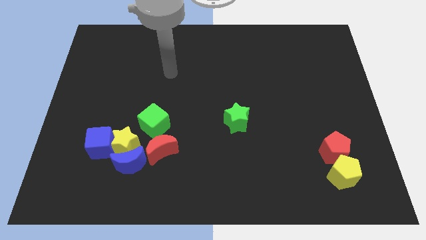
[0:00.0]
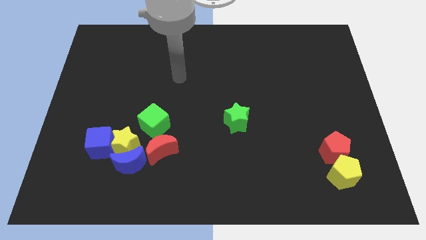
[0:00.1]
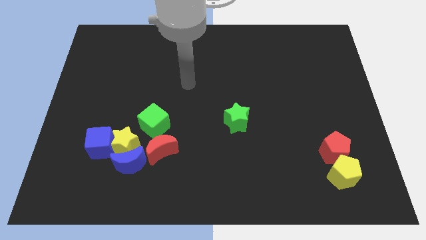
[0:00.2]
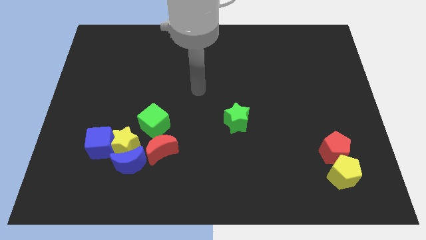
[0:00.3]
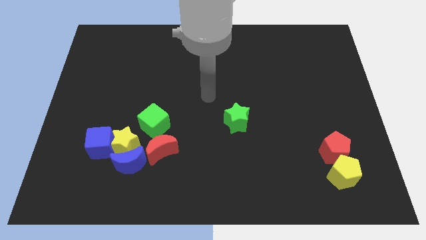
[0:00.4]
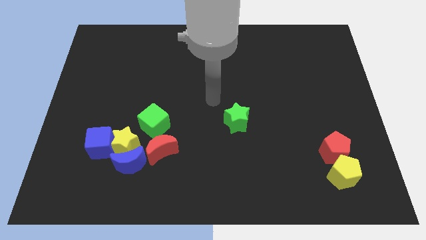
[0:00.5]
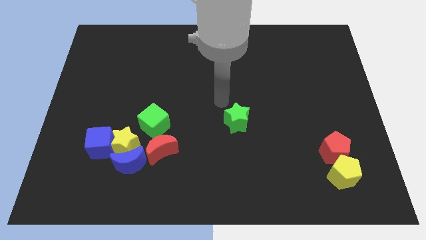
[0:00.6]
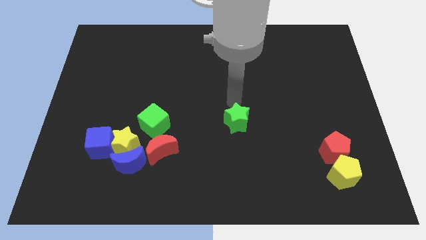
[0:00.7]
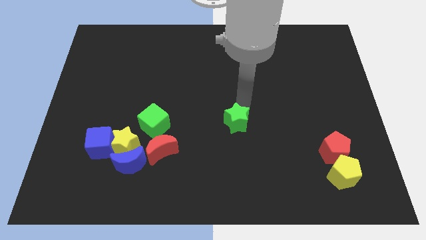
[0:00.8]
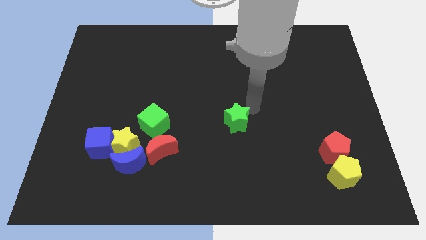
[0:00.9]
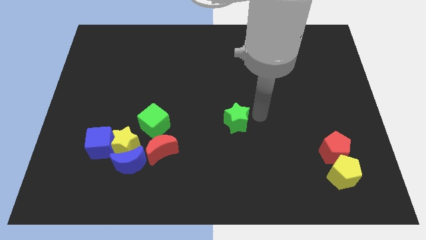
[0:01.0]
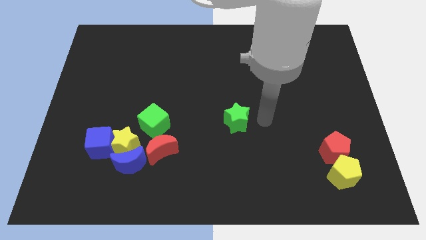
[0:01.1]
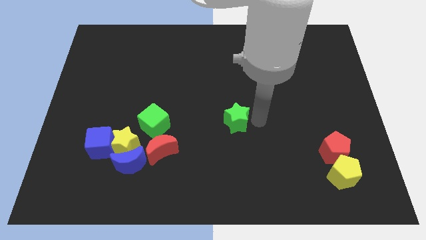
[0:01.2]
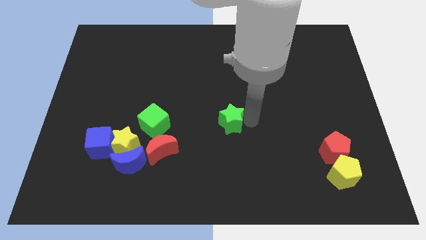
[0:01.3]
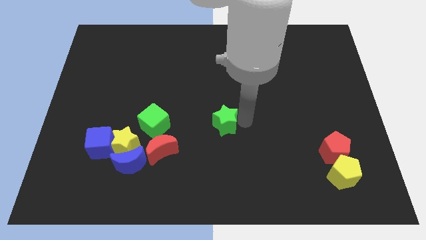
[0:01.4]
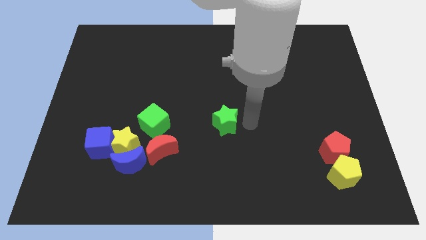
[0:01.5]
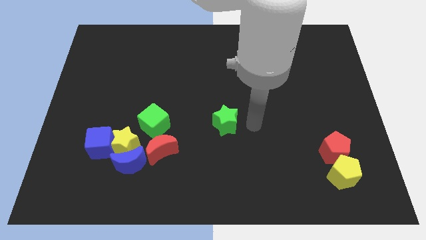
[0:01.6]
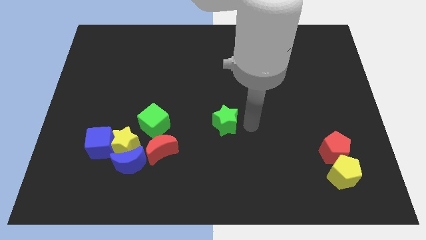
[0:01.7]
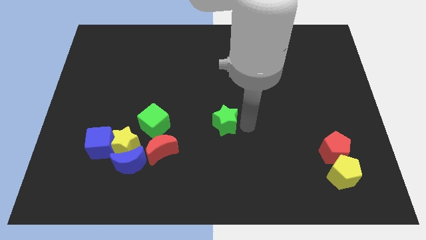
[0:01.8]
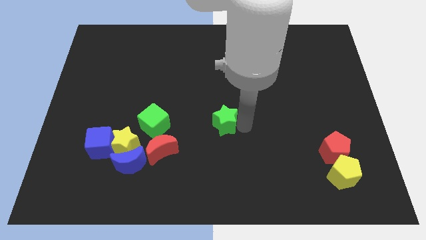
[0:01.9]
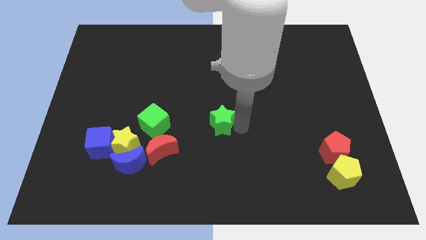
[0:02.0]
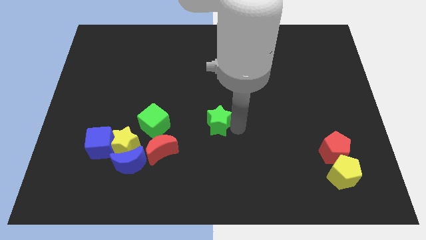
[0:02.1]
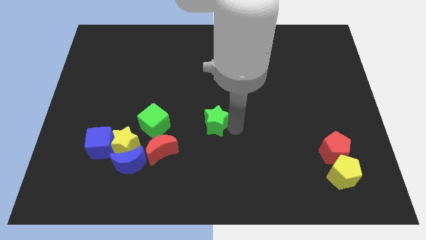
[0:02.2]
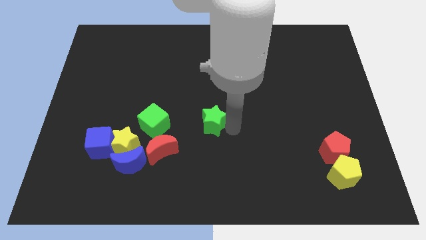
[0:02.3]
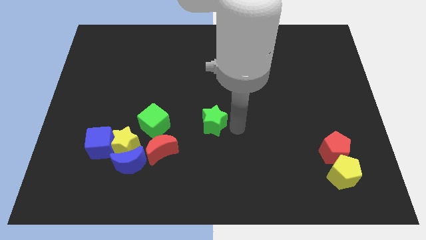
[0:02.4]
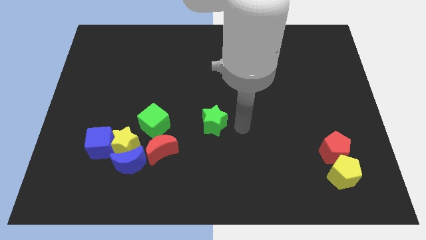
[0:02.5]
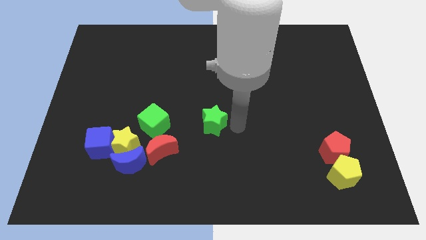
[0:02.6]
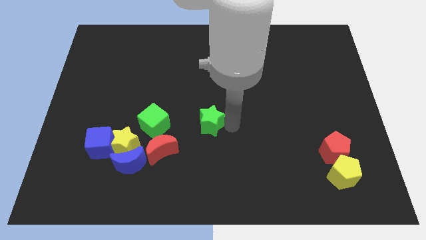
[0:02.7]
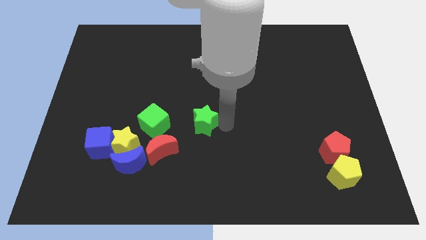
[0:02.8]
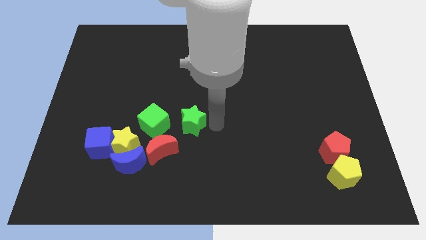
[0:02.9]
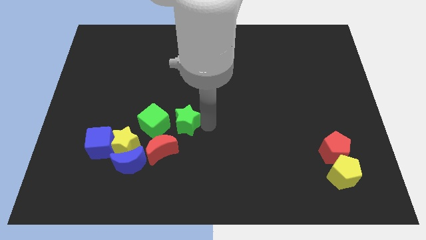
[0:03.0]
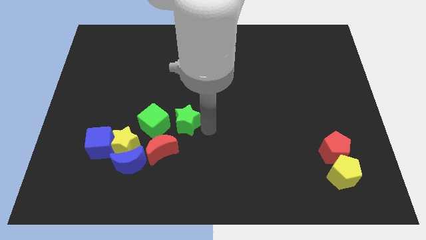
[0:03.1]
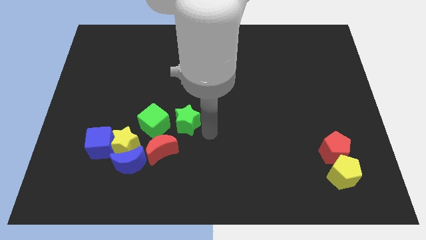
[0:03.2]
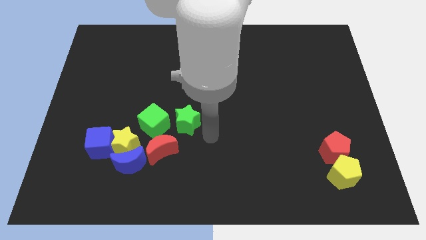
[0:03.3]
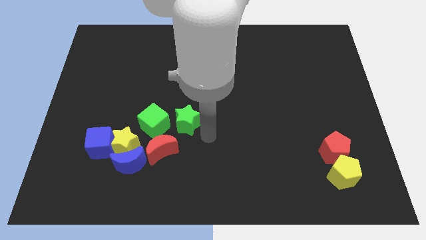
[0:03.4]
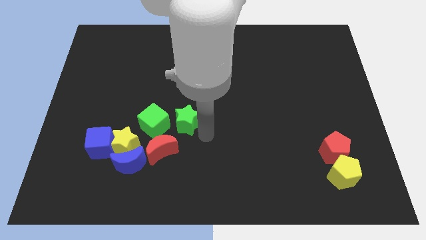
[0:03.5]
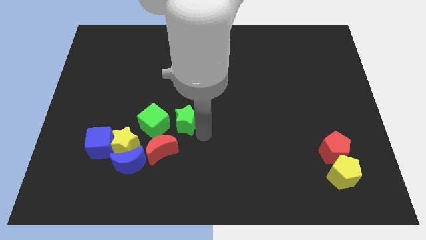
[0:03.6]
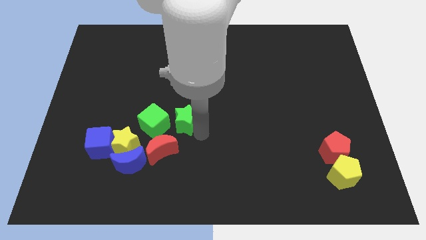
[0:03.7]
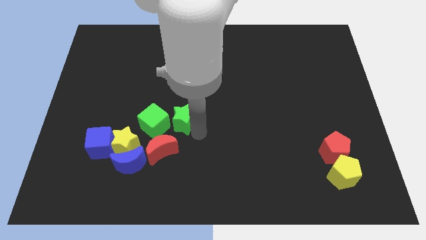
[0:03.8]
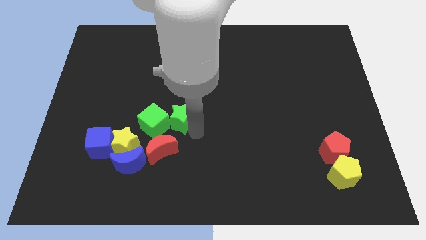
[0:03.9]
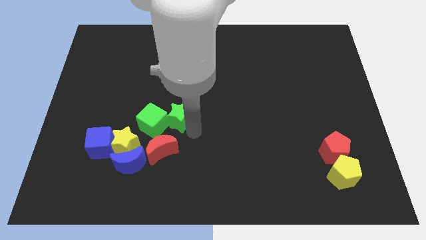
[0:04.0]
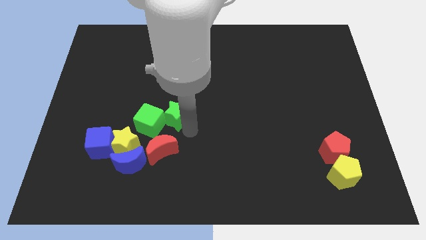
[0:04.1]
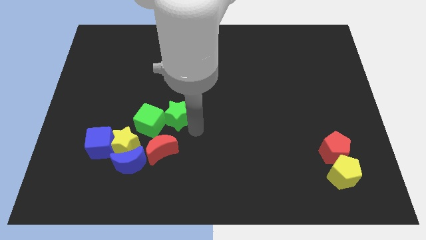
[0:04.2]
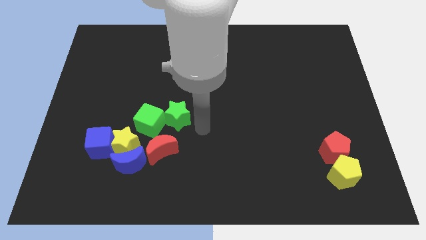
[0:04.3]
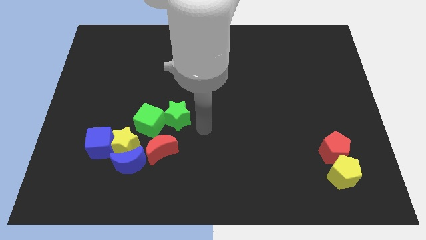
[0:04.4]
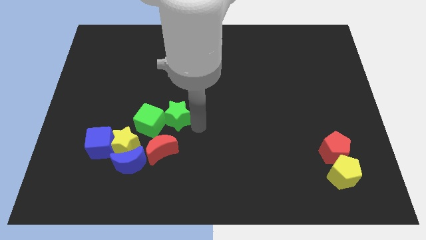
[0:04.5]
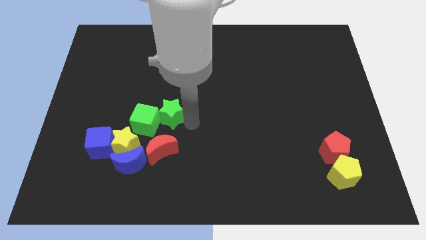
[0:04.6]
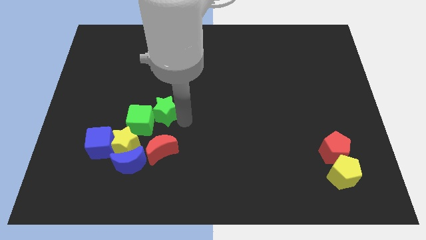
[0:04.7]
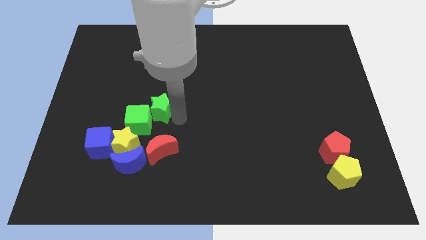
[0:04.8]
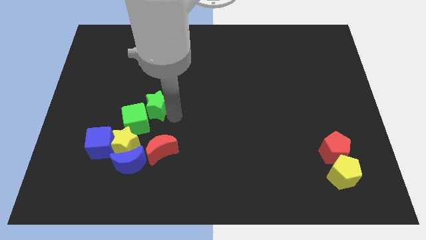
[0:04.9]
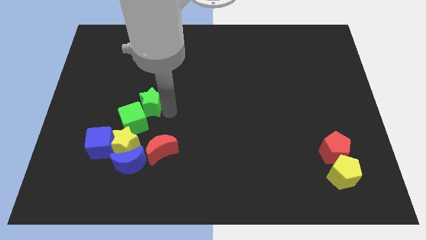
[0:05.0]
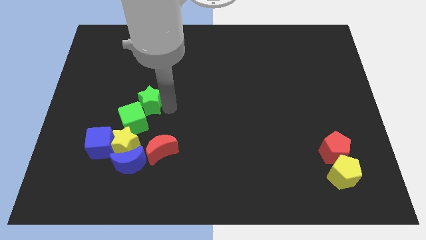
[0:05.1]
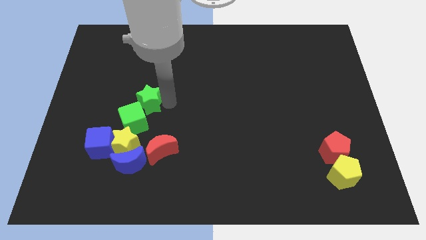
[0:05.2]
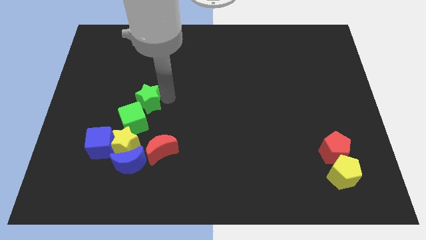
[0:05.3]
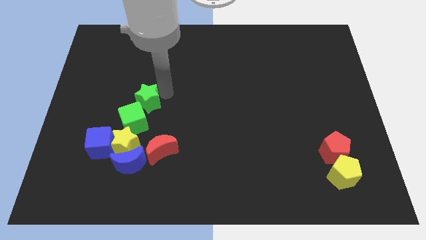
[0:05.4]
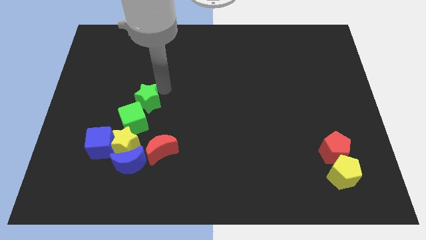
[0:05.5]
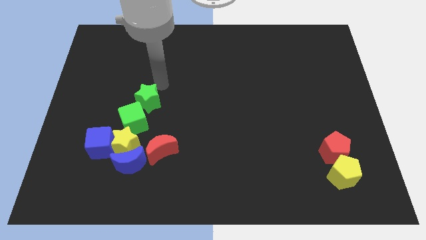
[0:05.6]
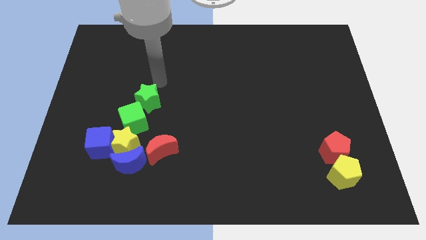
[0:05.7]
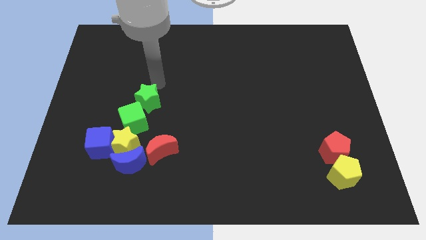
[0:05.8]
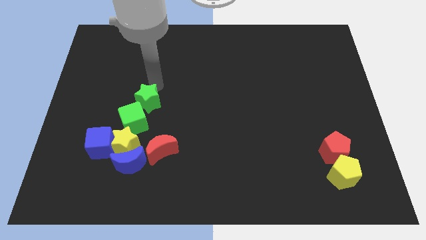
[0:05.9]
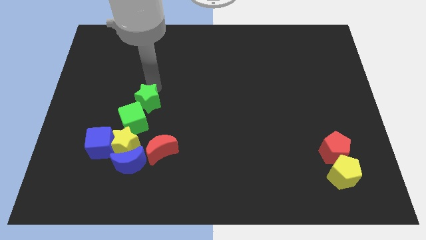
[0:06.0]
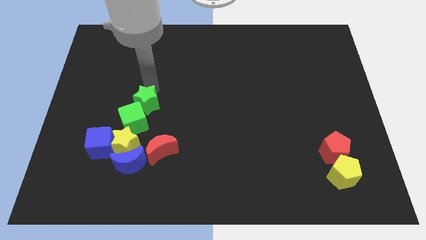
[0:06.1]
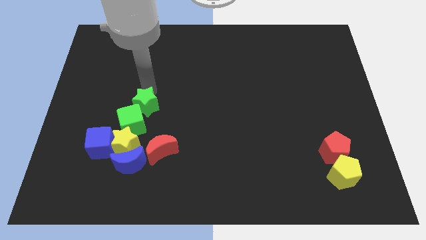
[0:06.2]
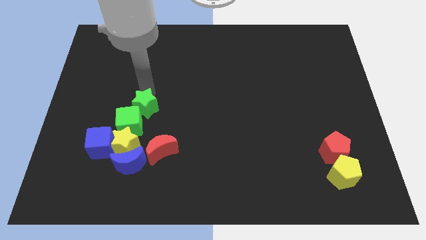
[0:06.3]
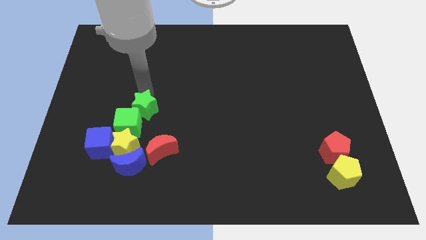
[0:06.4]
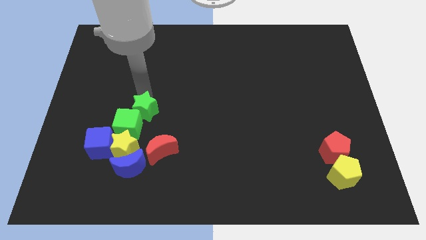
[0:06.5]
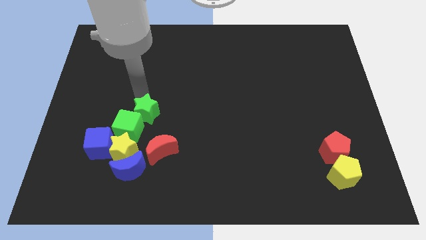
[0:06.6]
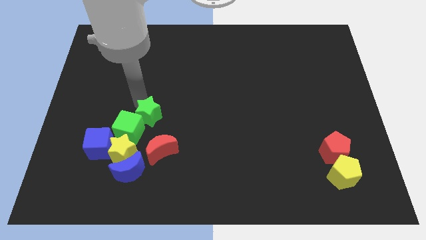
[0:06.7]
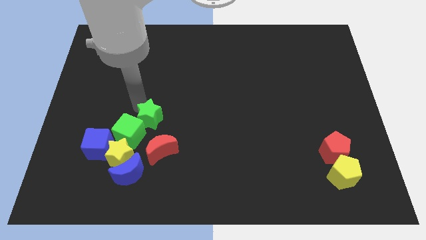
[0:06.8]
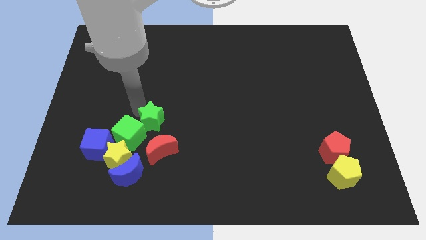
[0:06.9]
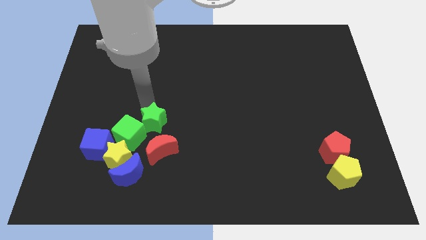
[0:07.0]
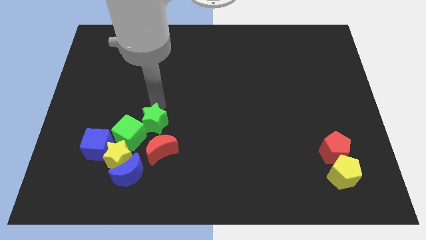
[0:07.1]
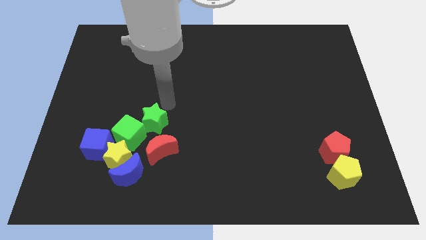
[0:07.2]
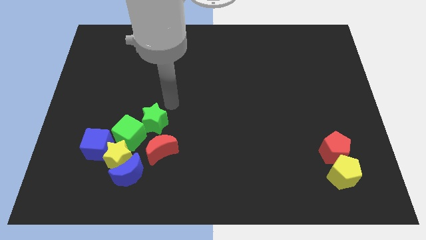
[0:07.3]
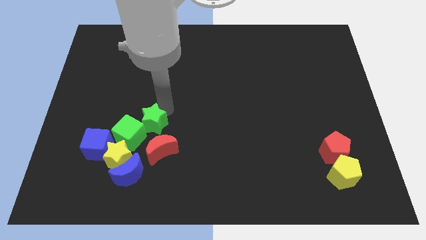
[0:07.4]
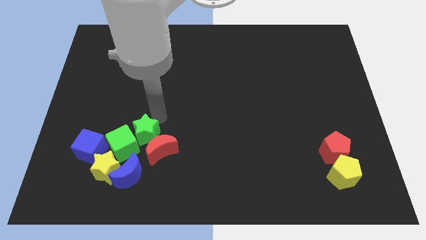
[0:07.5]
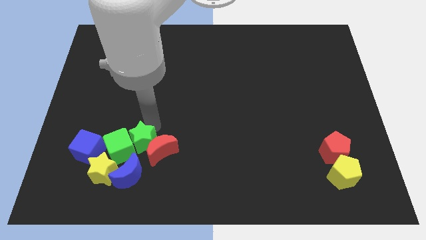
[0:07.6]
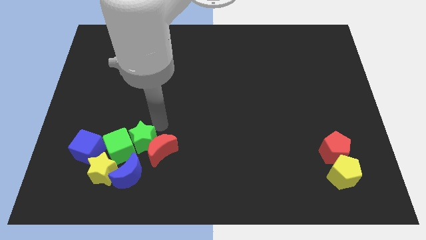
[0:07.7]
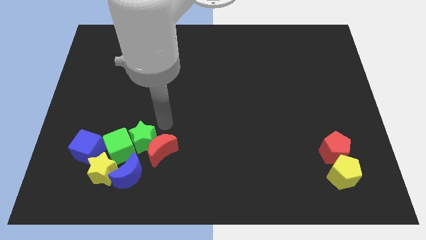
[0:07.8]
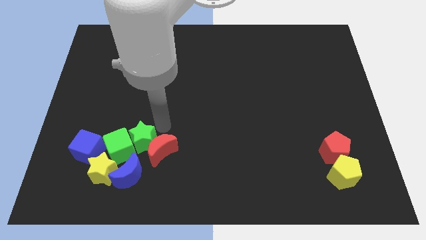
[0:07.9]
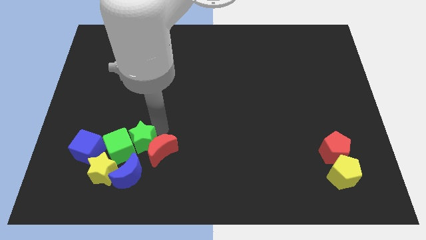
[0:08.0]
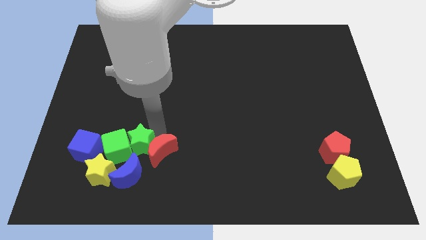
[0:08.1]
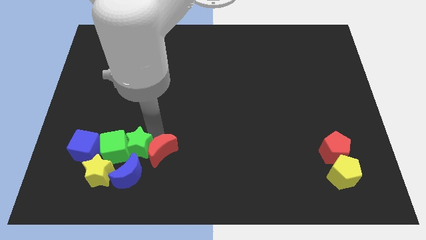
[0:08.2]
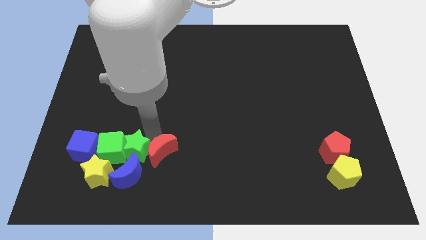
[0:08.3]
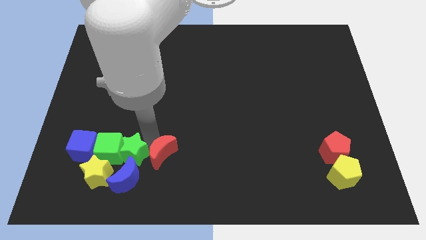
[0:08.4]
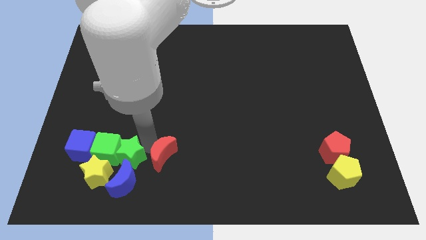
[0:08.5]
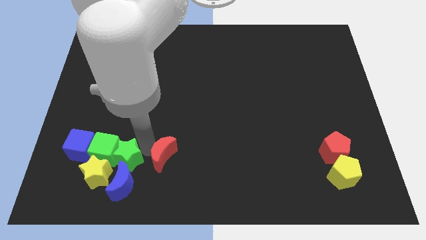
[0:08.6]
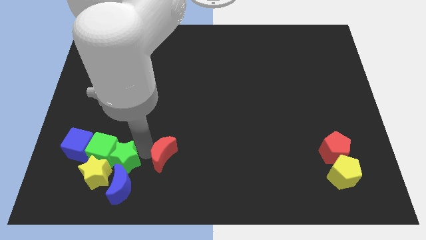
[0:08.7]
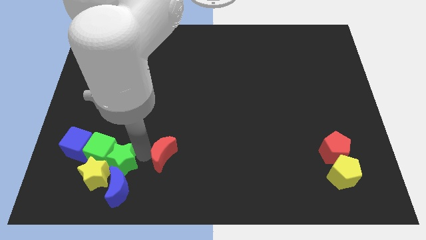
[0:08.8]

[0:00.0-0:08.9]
move the green star to the yellow star
